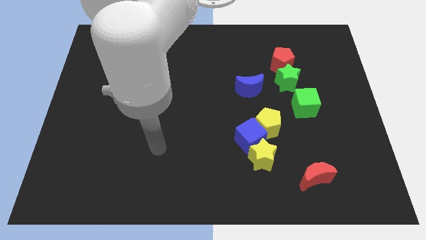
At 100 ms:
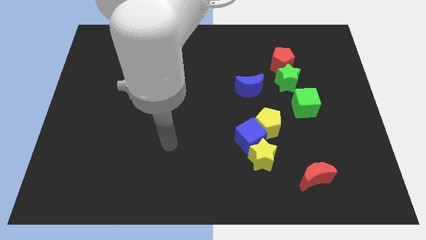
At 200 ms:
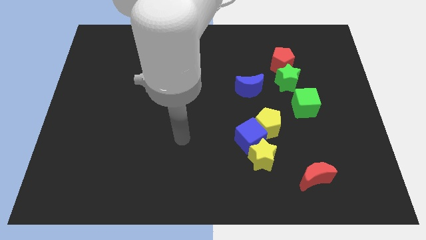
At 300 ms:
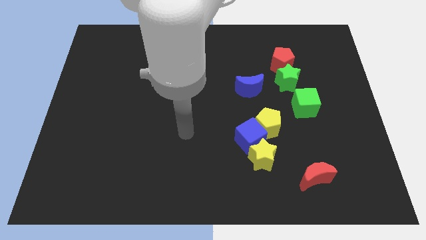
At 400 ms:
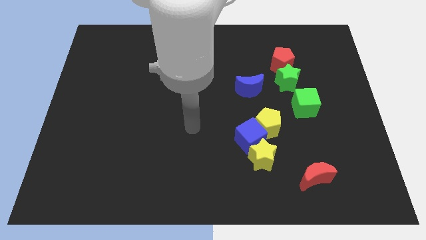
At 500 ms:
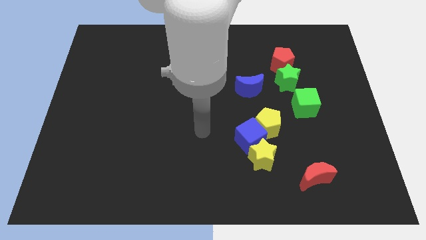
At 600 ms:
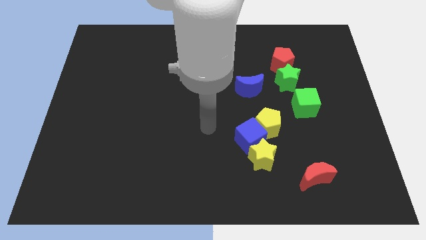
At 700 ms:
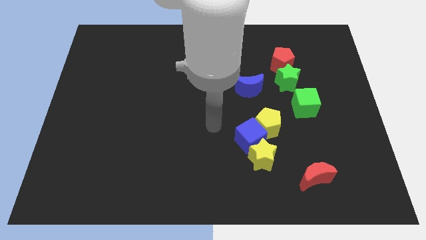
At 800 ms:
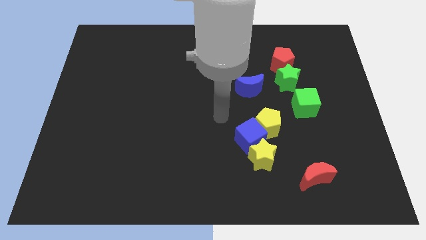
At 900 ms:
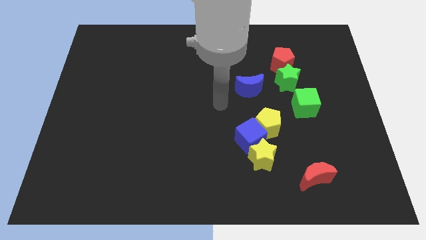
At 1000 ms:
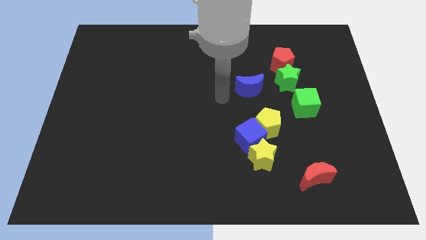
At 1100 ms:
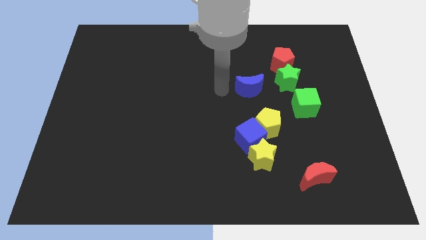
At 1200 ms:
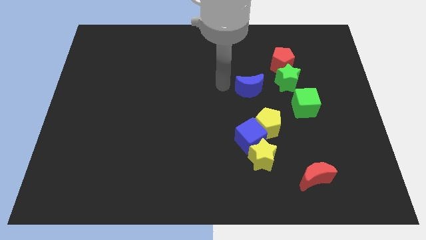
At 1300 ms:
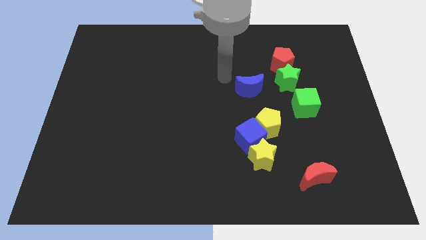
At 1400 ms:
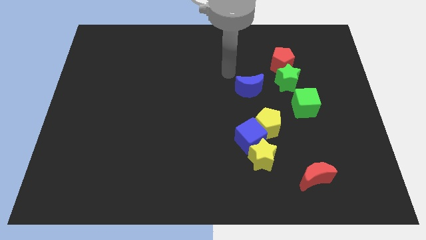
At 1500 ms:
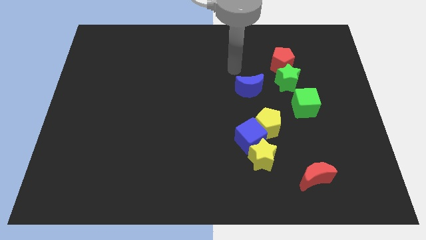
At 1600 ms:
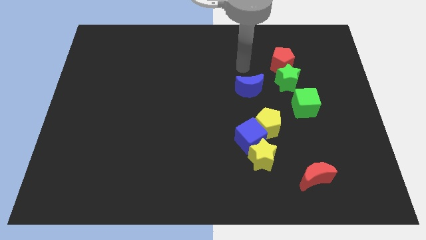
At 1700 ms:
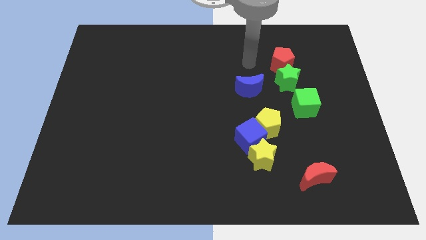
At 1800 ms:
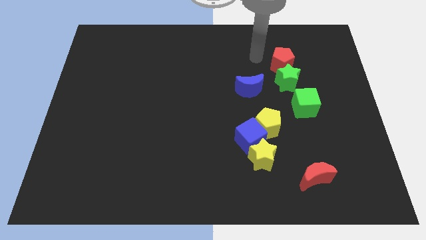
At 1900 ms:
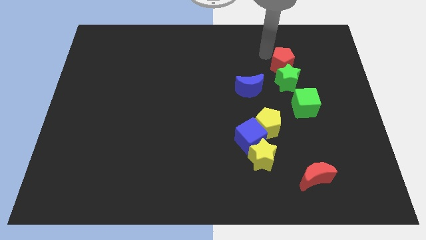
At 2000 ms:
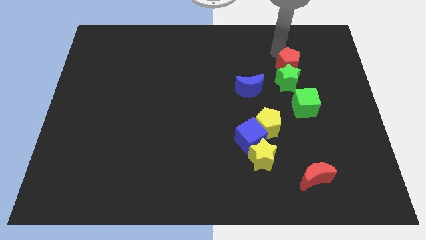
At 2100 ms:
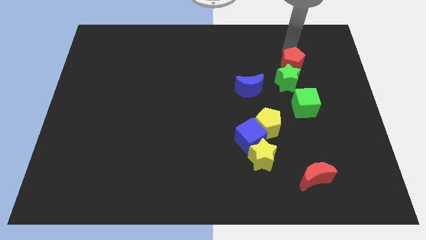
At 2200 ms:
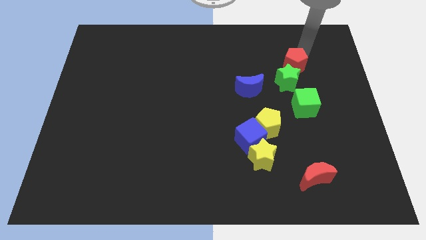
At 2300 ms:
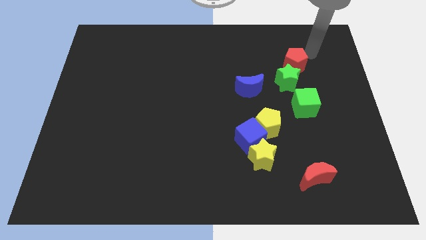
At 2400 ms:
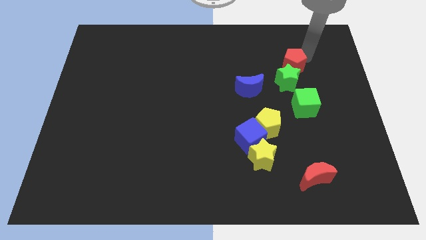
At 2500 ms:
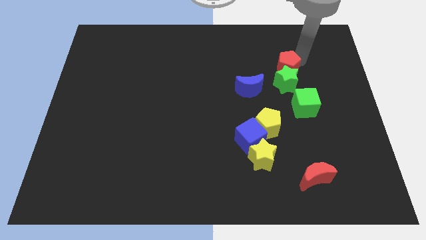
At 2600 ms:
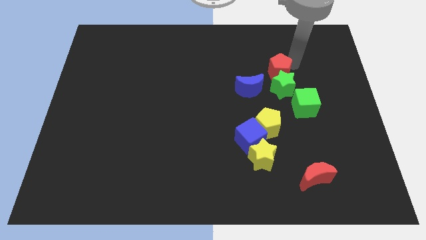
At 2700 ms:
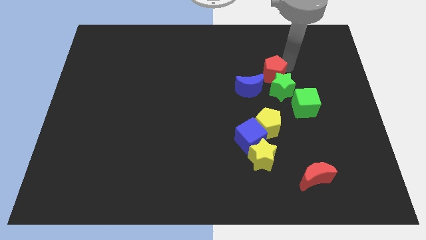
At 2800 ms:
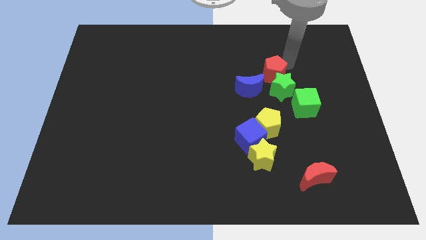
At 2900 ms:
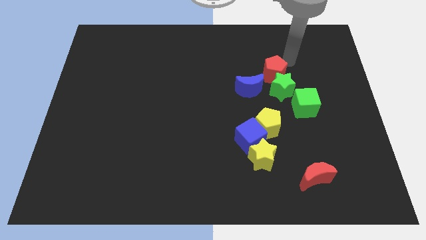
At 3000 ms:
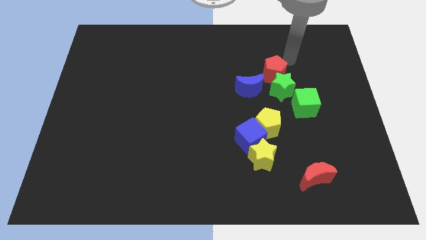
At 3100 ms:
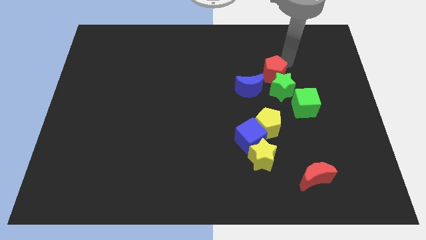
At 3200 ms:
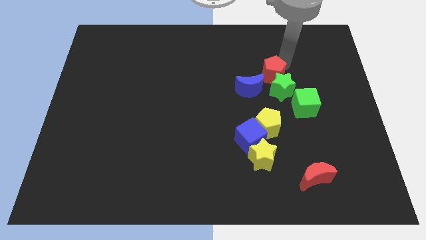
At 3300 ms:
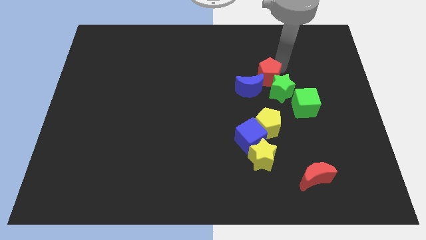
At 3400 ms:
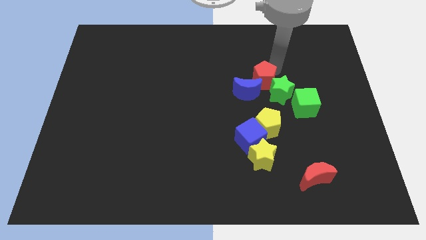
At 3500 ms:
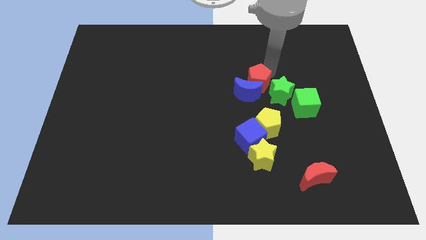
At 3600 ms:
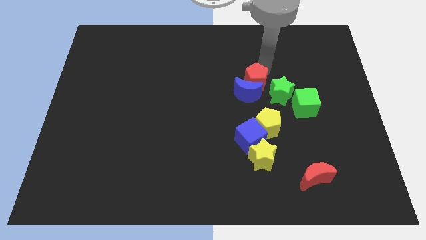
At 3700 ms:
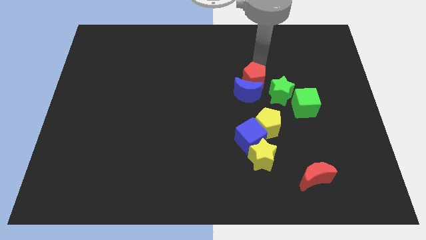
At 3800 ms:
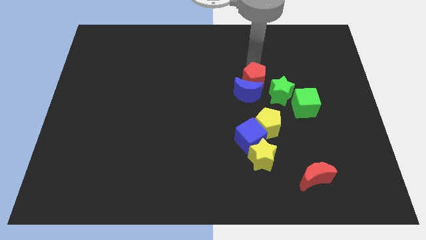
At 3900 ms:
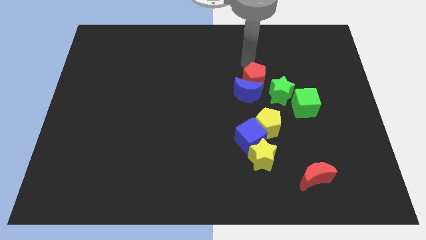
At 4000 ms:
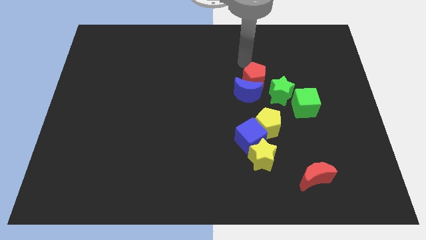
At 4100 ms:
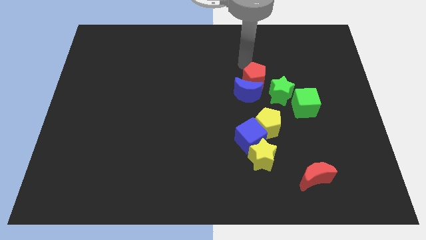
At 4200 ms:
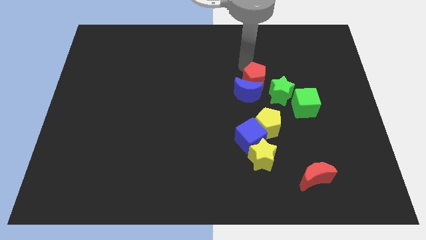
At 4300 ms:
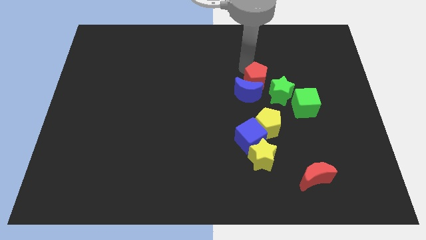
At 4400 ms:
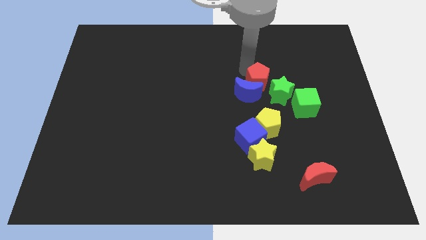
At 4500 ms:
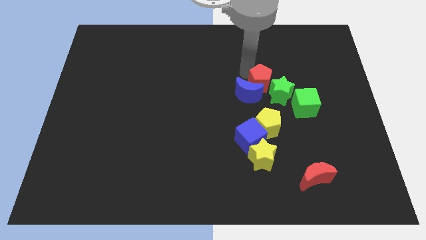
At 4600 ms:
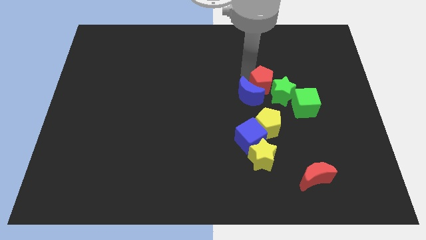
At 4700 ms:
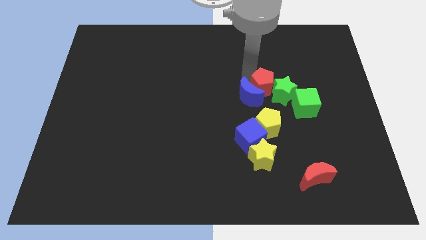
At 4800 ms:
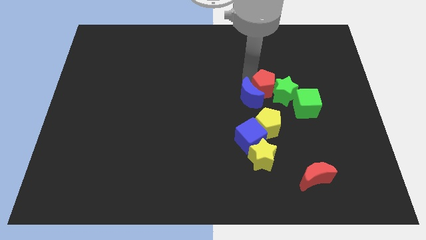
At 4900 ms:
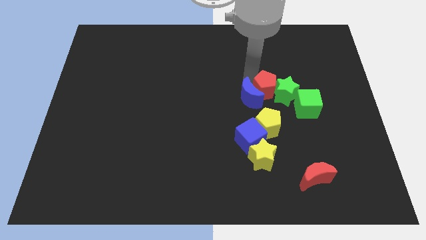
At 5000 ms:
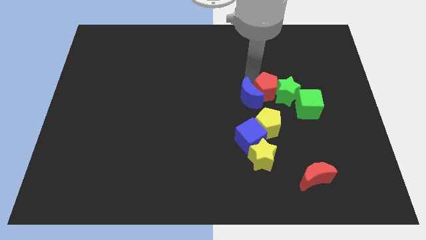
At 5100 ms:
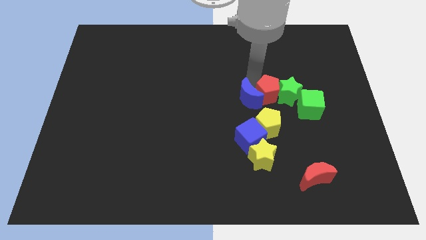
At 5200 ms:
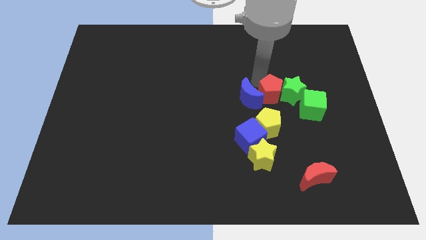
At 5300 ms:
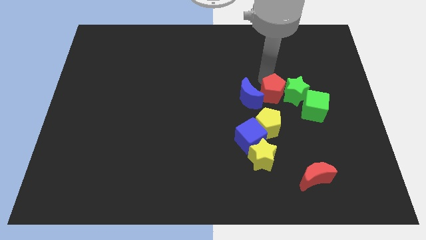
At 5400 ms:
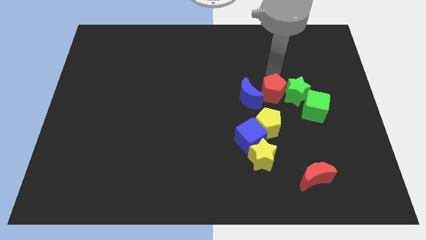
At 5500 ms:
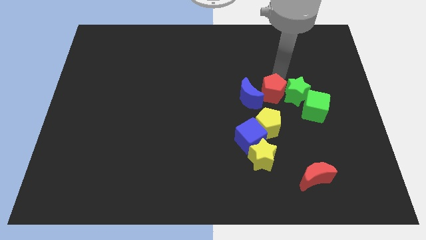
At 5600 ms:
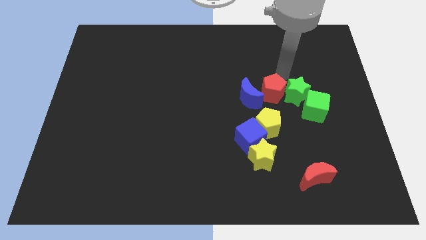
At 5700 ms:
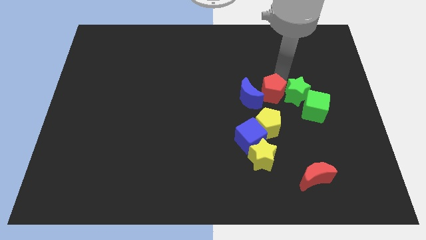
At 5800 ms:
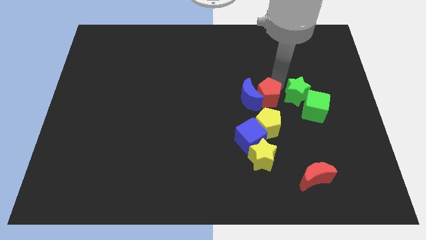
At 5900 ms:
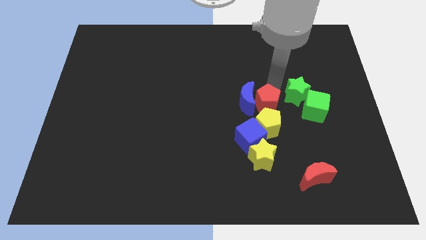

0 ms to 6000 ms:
move the red pentagon to the top side of the yellow star

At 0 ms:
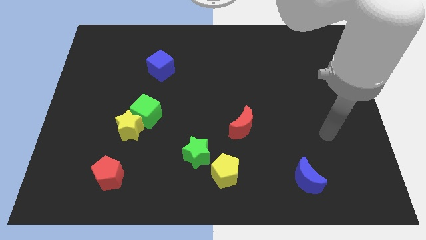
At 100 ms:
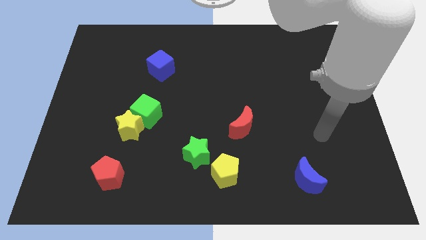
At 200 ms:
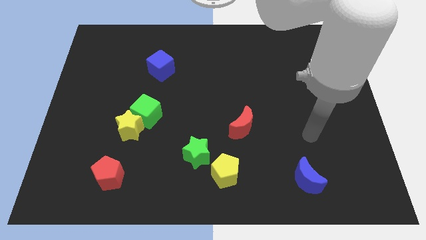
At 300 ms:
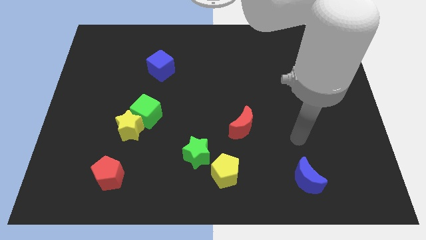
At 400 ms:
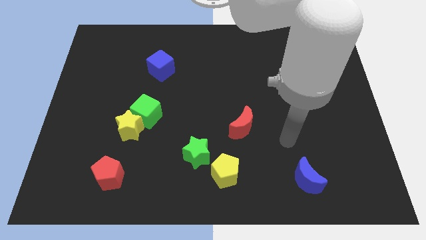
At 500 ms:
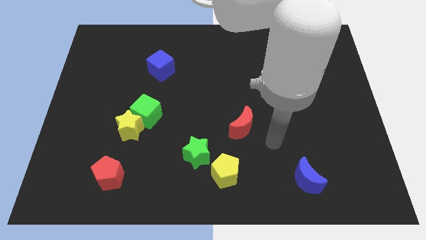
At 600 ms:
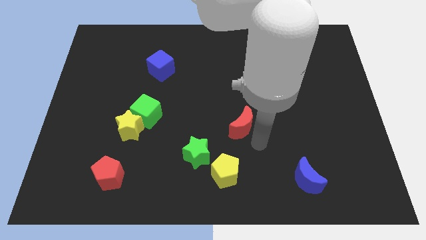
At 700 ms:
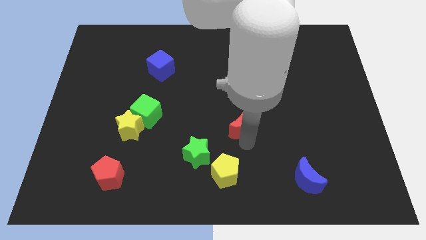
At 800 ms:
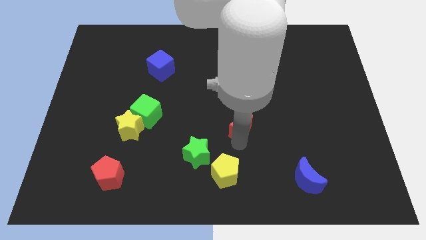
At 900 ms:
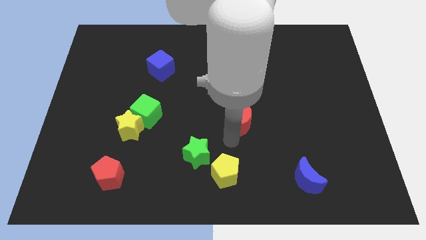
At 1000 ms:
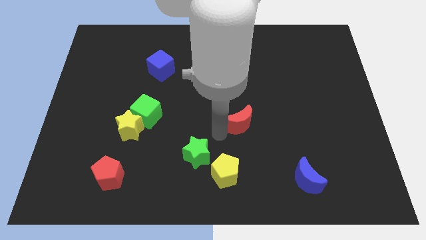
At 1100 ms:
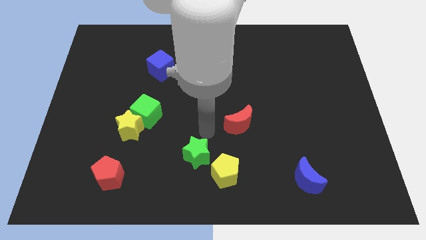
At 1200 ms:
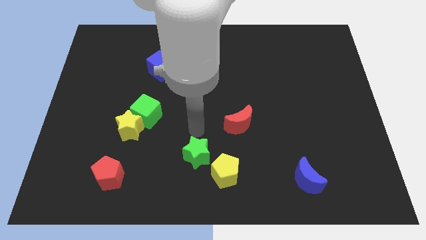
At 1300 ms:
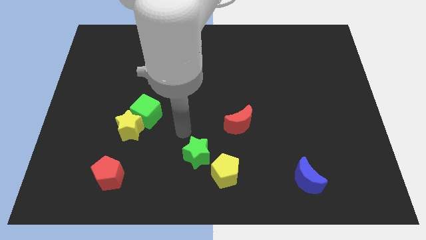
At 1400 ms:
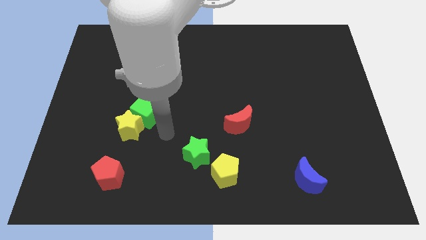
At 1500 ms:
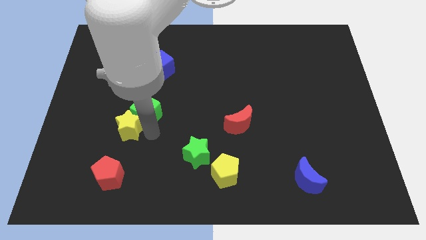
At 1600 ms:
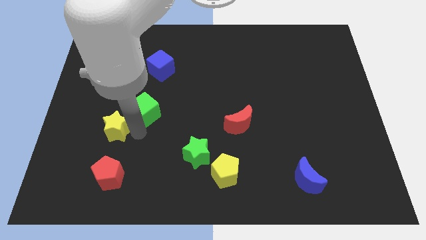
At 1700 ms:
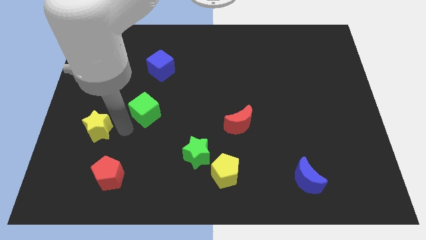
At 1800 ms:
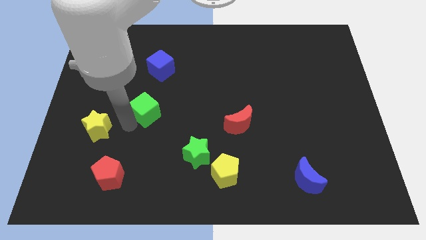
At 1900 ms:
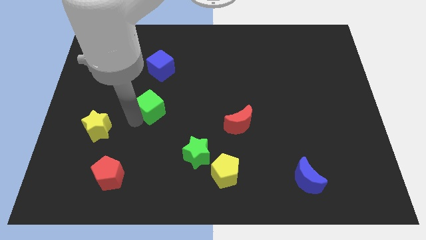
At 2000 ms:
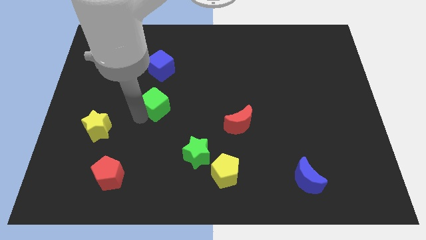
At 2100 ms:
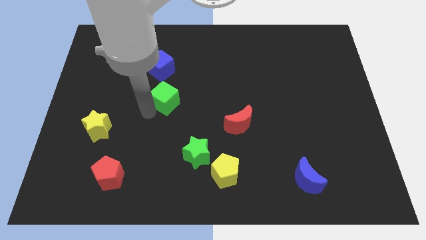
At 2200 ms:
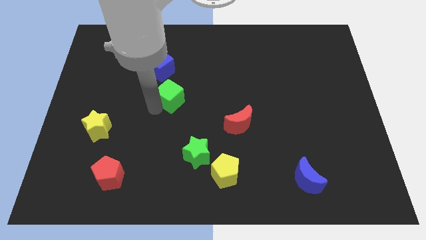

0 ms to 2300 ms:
move the green cube to the bottom right side of the blue cube
